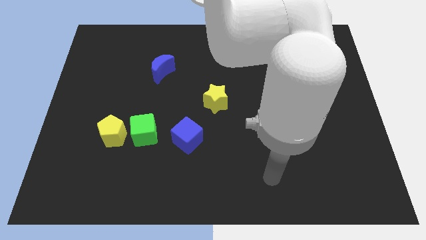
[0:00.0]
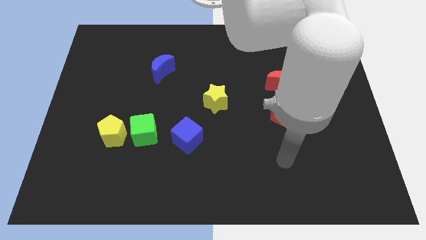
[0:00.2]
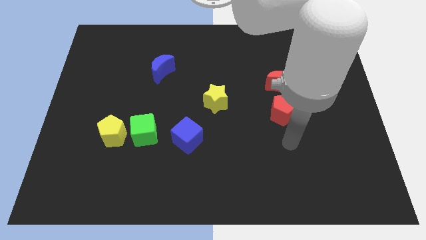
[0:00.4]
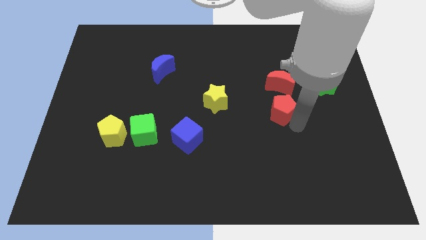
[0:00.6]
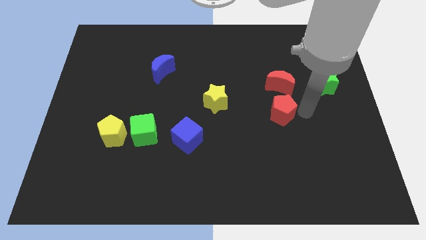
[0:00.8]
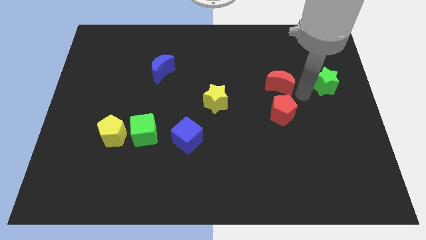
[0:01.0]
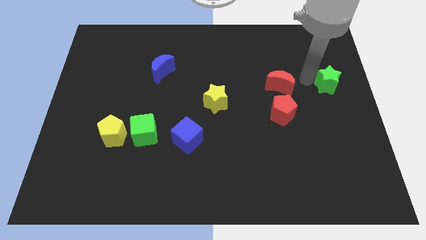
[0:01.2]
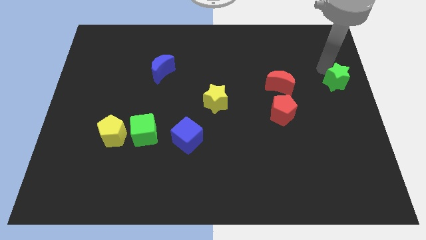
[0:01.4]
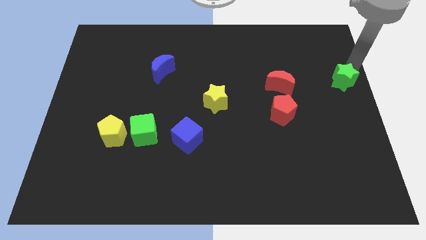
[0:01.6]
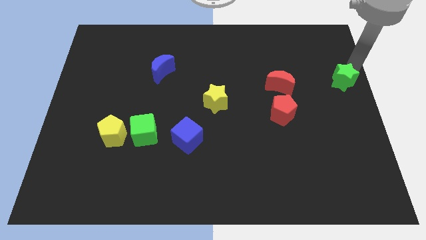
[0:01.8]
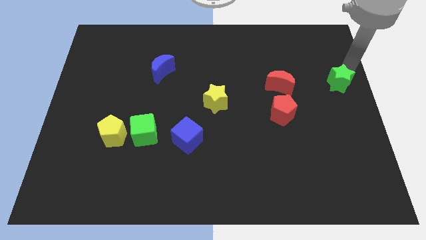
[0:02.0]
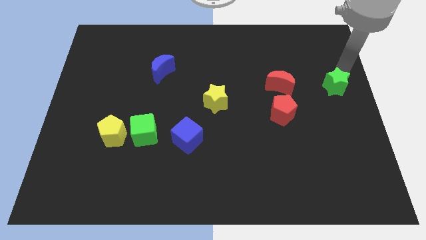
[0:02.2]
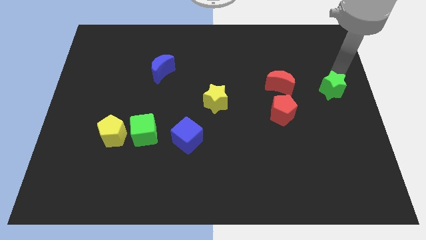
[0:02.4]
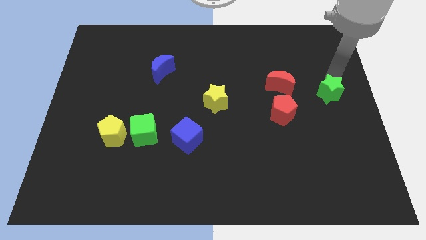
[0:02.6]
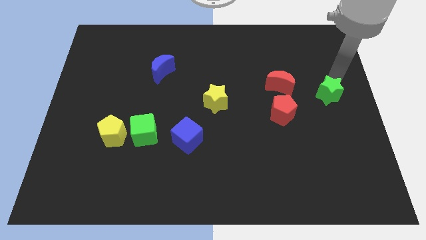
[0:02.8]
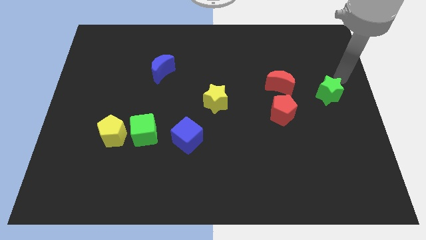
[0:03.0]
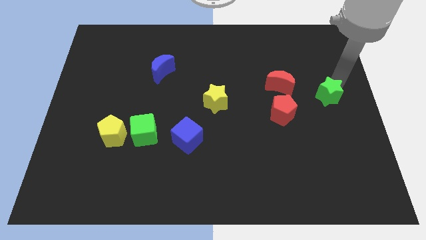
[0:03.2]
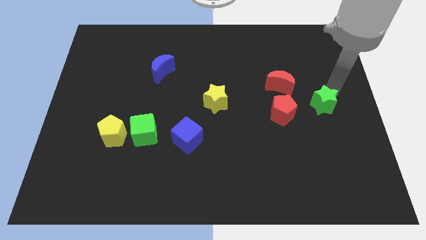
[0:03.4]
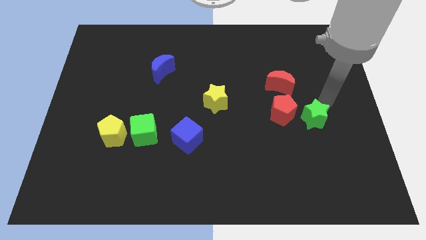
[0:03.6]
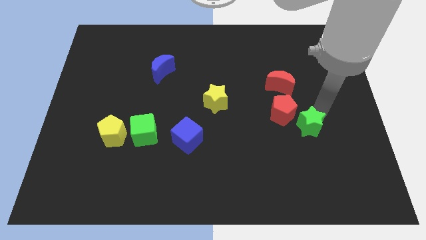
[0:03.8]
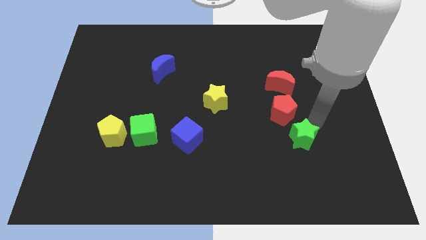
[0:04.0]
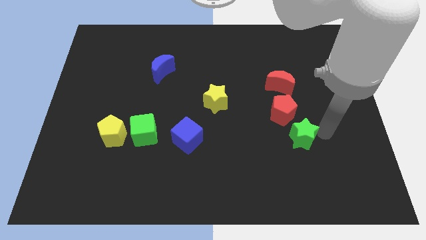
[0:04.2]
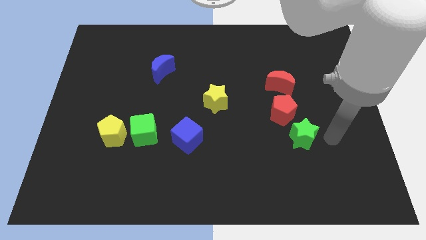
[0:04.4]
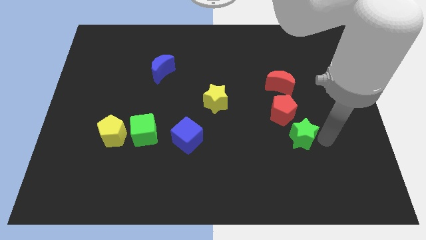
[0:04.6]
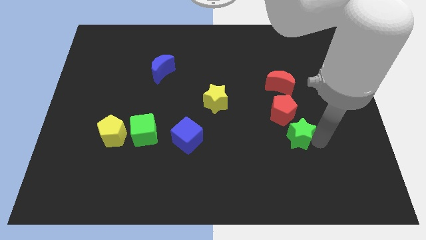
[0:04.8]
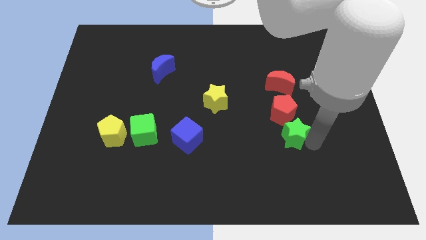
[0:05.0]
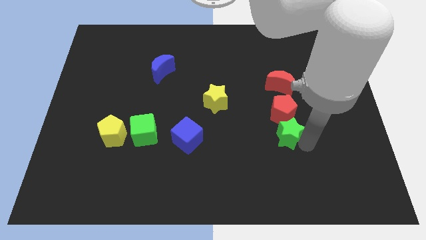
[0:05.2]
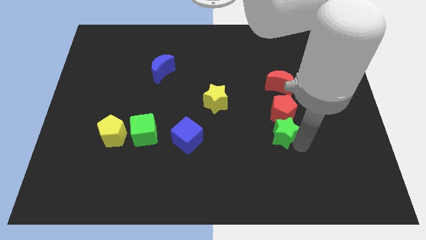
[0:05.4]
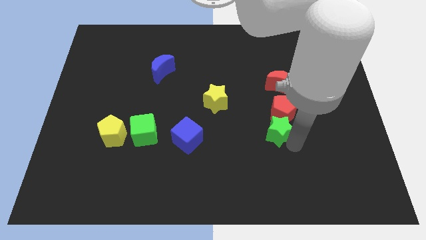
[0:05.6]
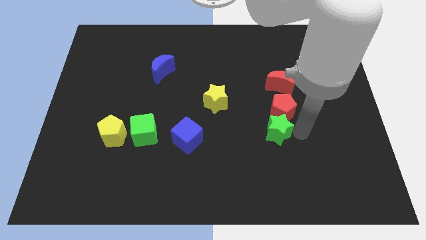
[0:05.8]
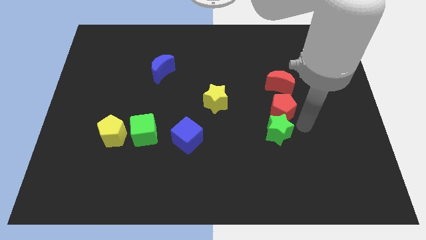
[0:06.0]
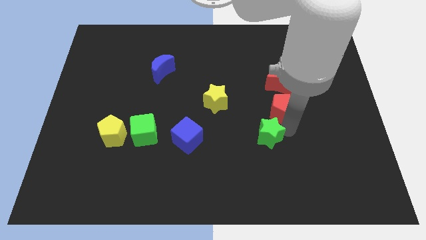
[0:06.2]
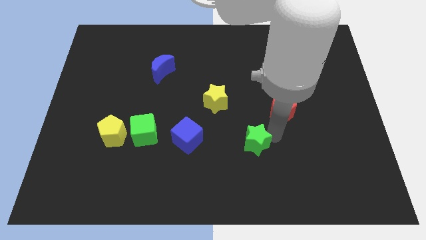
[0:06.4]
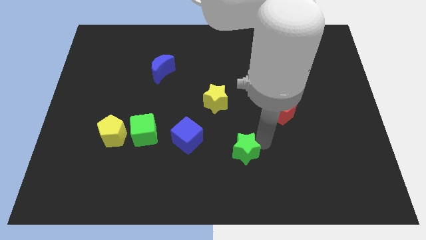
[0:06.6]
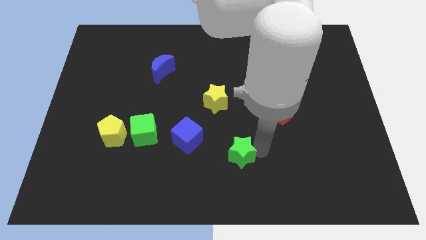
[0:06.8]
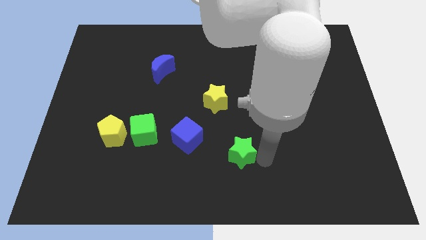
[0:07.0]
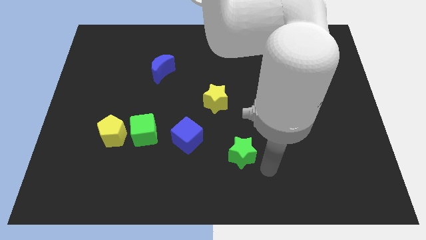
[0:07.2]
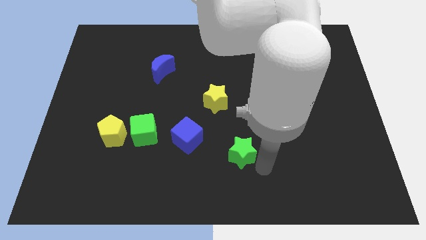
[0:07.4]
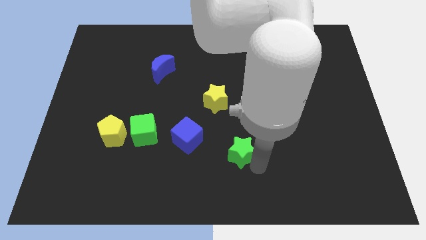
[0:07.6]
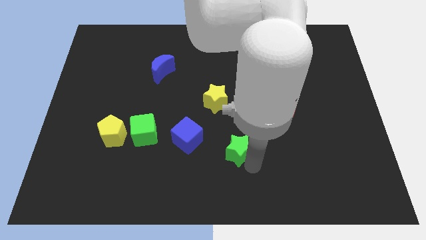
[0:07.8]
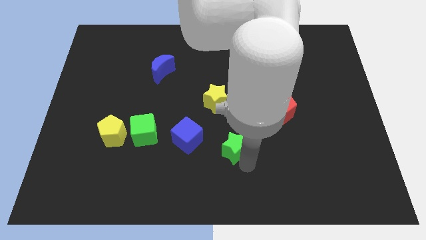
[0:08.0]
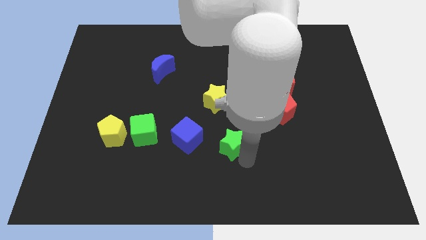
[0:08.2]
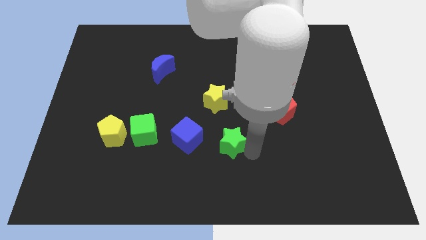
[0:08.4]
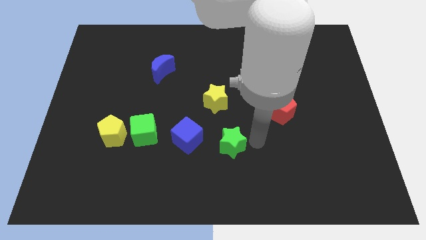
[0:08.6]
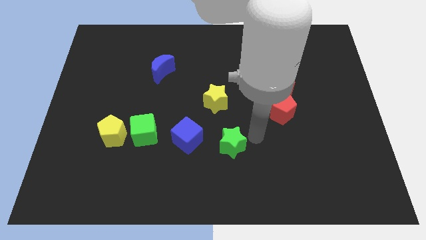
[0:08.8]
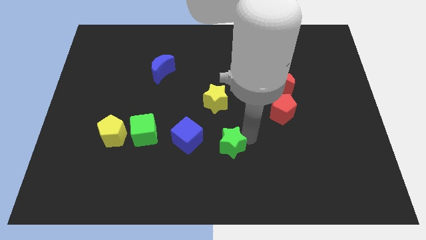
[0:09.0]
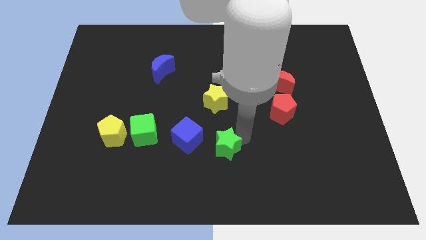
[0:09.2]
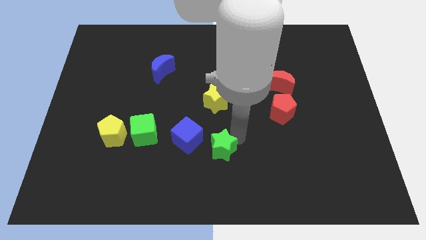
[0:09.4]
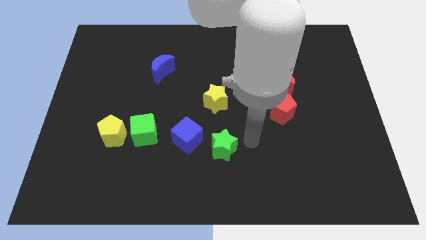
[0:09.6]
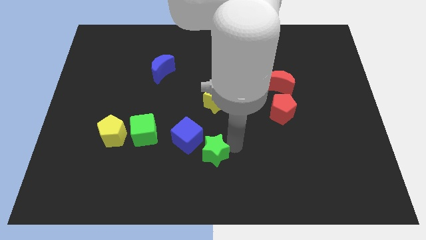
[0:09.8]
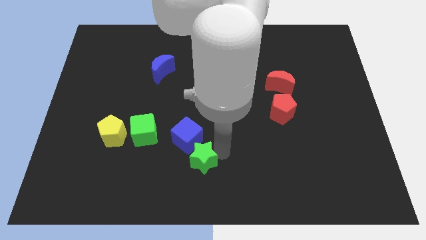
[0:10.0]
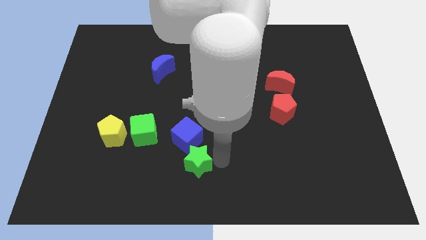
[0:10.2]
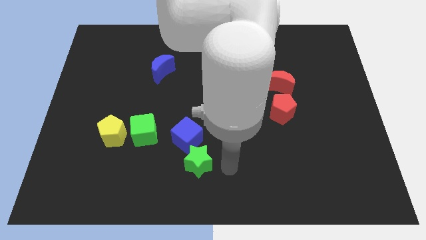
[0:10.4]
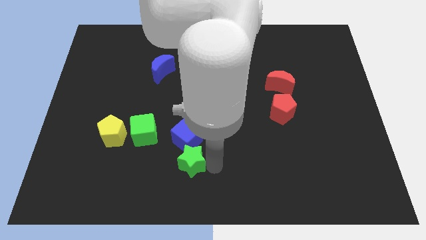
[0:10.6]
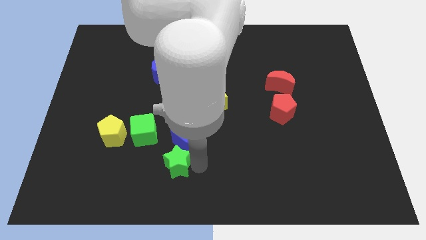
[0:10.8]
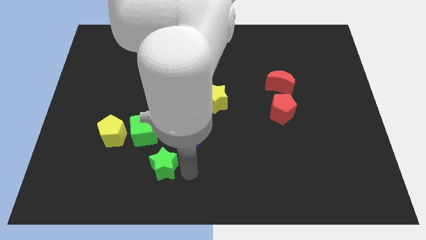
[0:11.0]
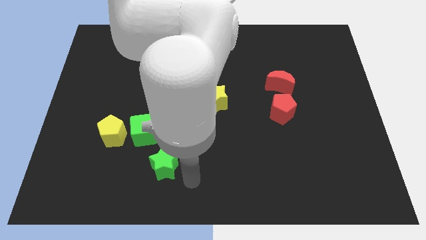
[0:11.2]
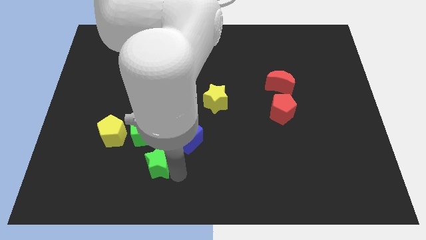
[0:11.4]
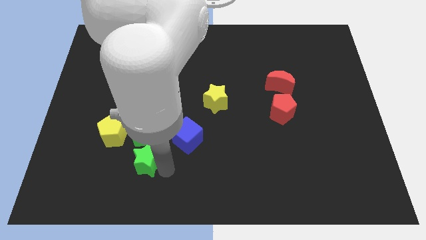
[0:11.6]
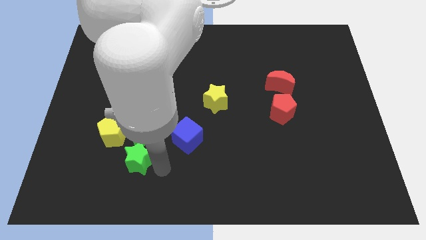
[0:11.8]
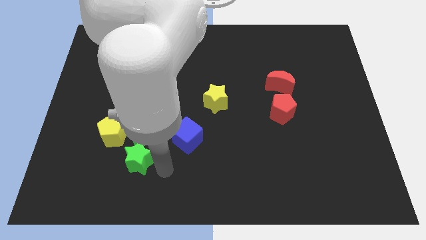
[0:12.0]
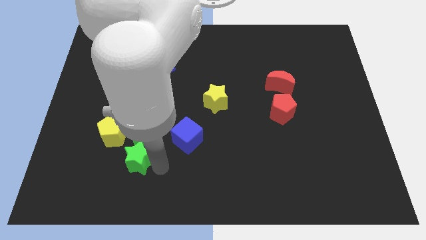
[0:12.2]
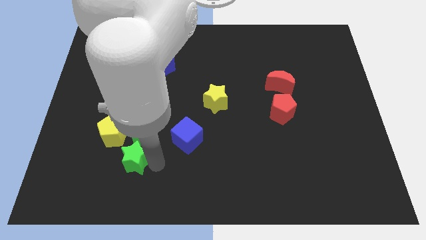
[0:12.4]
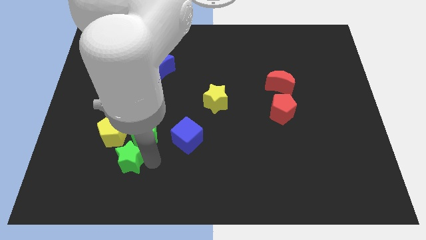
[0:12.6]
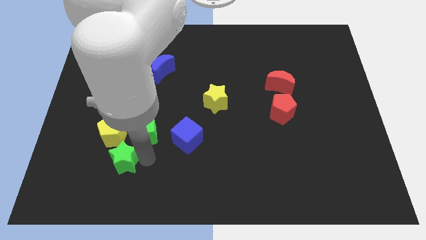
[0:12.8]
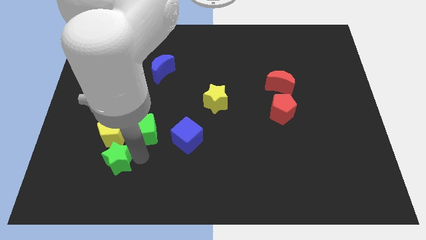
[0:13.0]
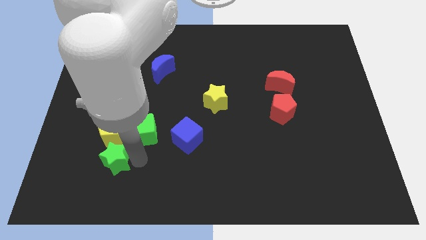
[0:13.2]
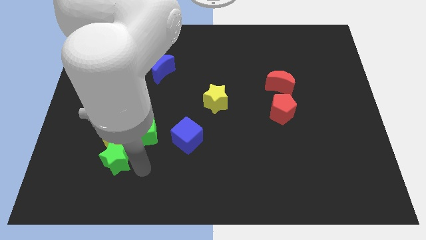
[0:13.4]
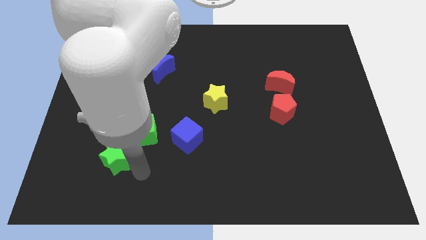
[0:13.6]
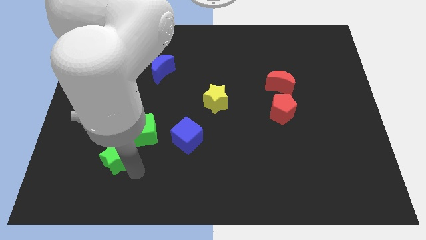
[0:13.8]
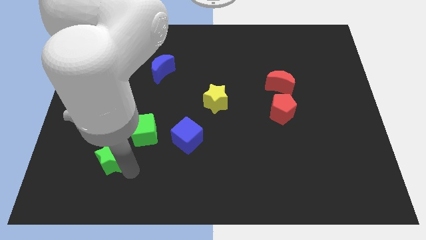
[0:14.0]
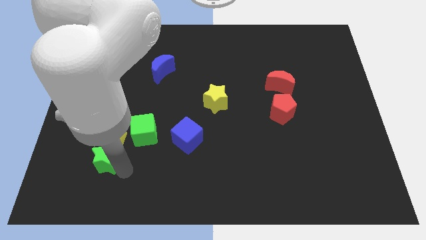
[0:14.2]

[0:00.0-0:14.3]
push the green star to the bottom left side of the yellow pentagon
